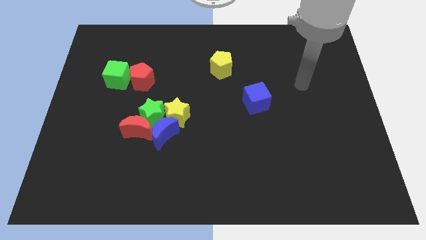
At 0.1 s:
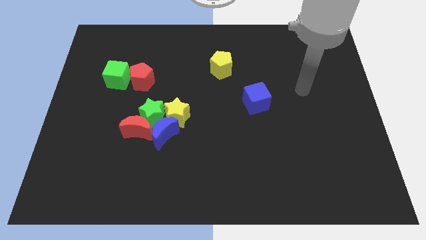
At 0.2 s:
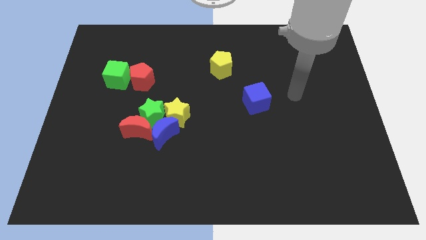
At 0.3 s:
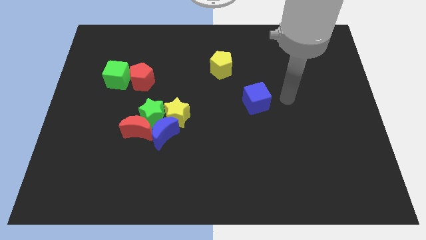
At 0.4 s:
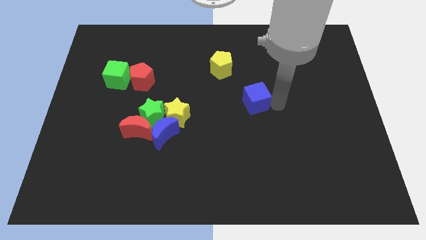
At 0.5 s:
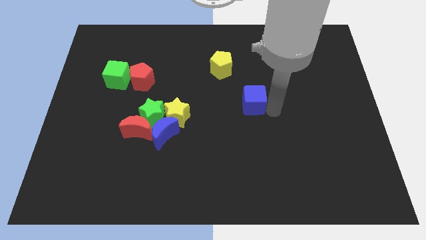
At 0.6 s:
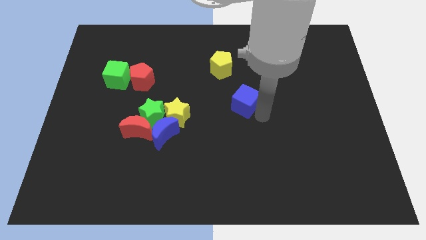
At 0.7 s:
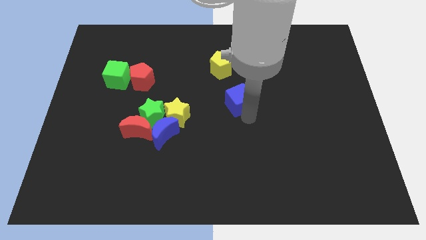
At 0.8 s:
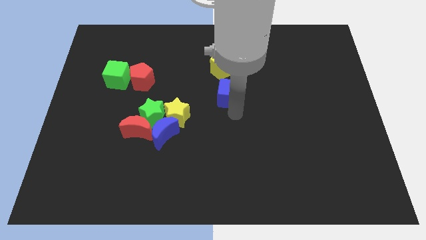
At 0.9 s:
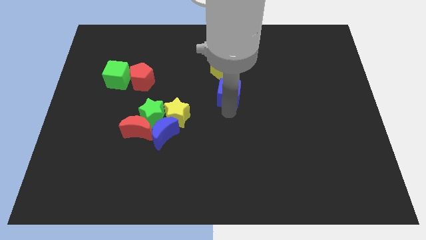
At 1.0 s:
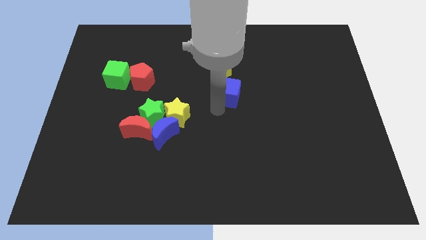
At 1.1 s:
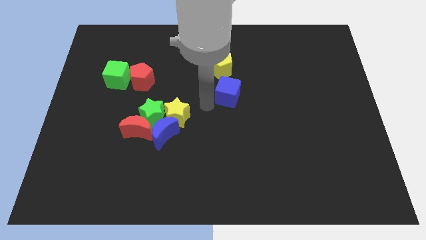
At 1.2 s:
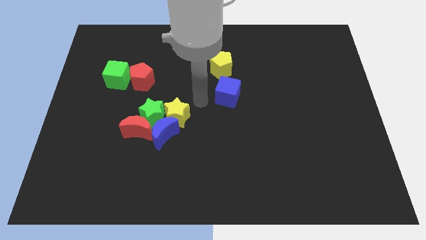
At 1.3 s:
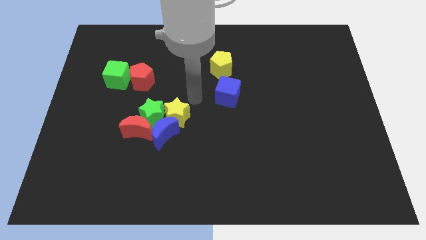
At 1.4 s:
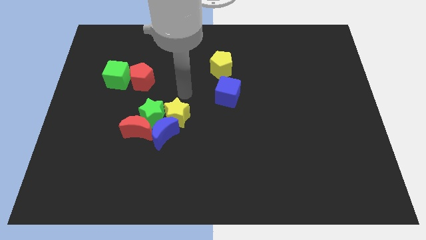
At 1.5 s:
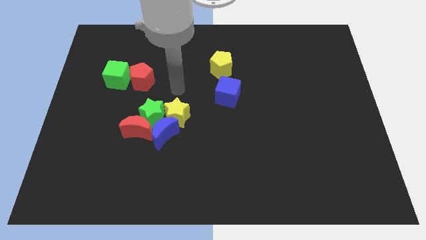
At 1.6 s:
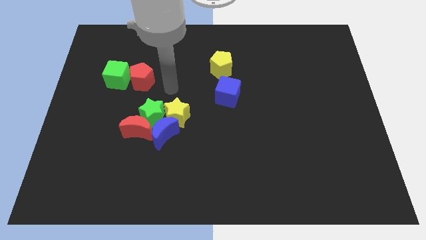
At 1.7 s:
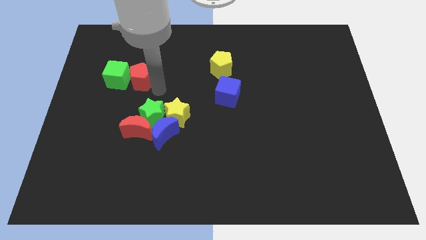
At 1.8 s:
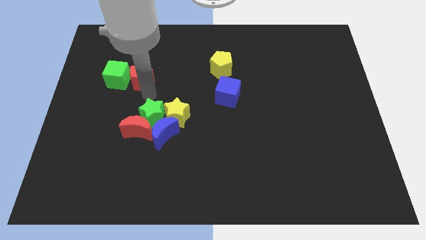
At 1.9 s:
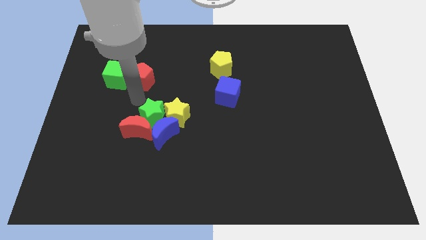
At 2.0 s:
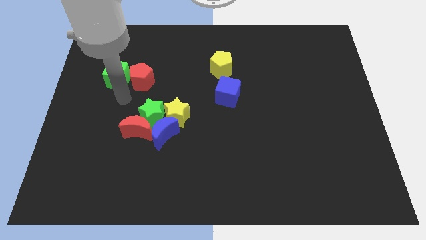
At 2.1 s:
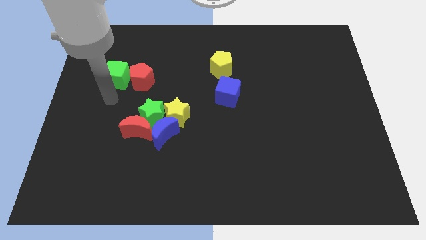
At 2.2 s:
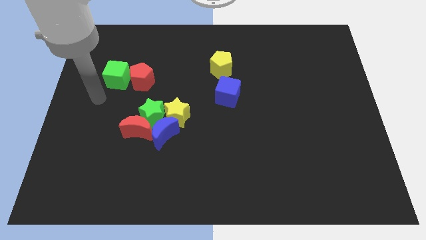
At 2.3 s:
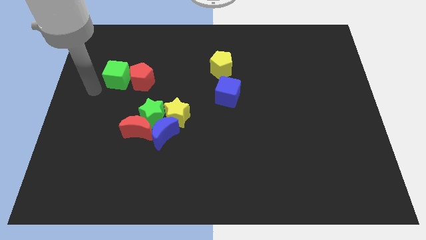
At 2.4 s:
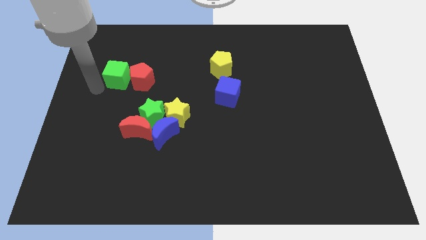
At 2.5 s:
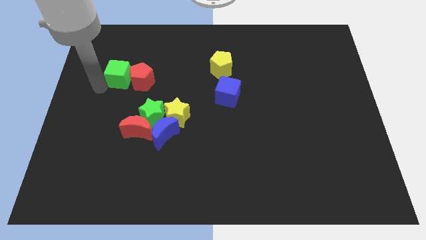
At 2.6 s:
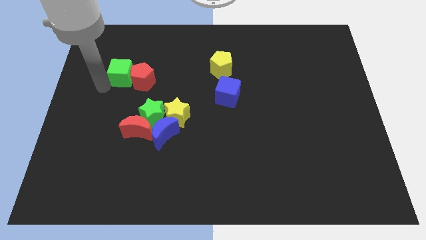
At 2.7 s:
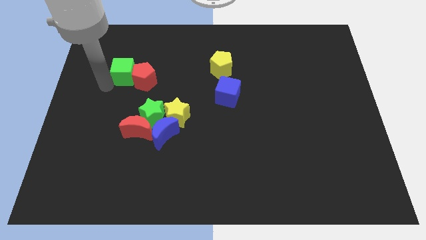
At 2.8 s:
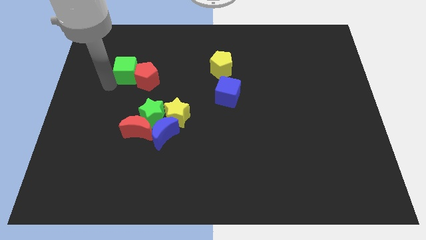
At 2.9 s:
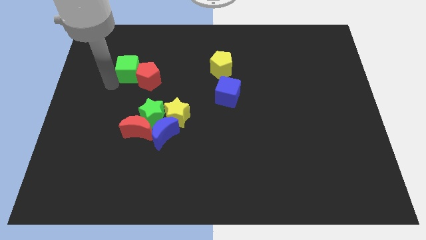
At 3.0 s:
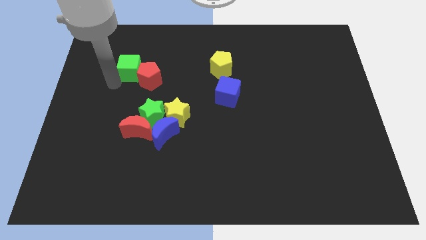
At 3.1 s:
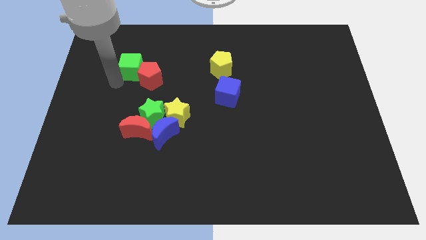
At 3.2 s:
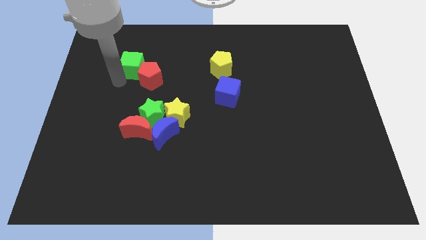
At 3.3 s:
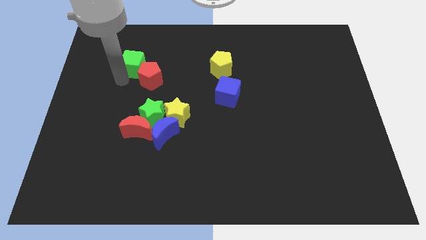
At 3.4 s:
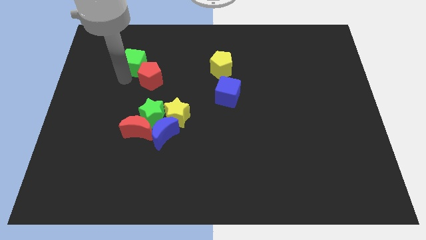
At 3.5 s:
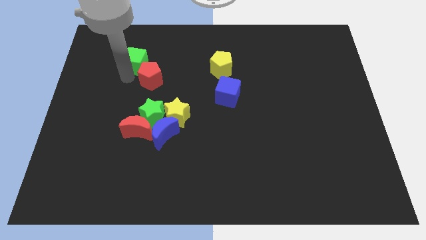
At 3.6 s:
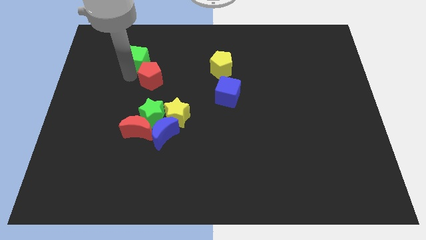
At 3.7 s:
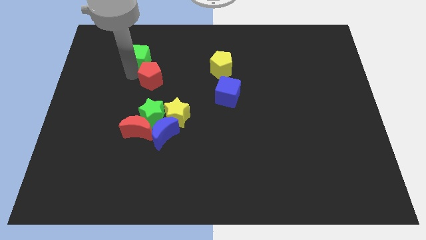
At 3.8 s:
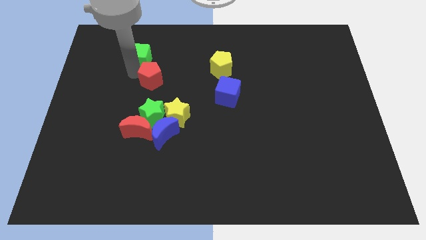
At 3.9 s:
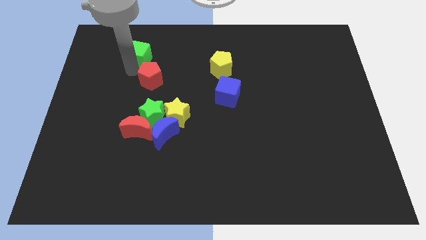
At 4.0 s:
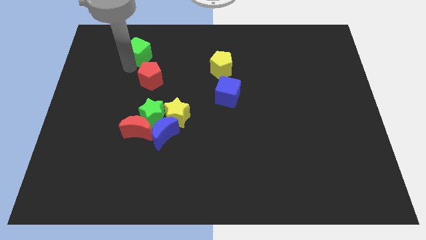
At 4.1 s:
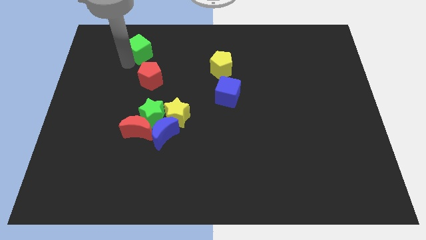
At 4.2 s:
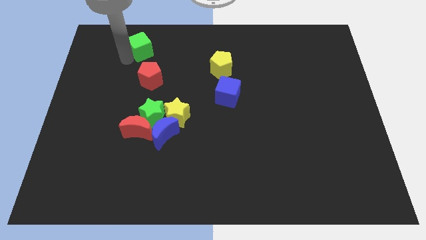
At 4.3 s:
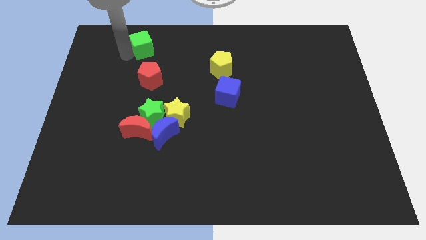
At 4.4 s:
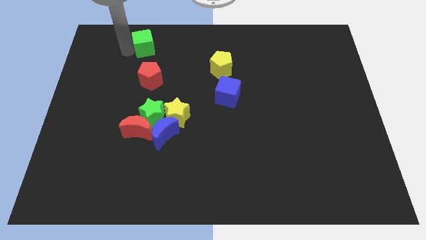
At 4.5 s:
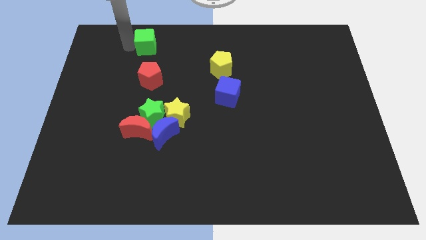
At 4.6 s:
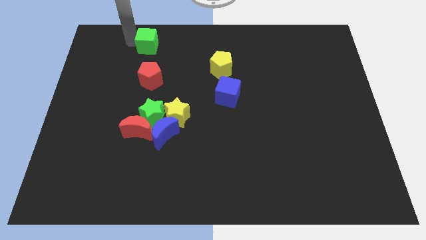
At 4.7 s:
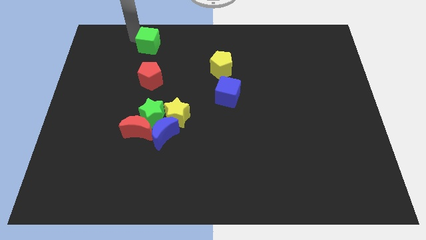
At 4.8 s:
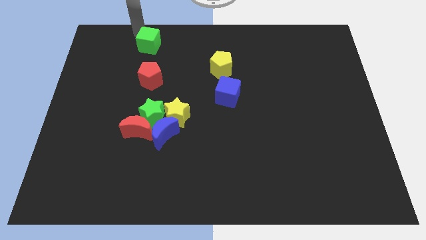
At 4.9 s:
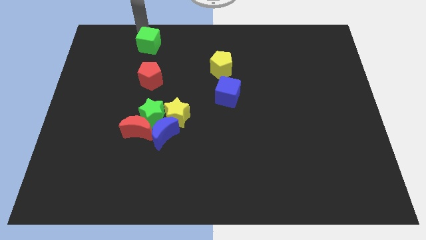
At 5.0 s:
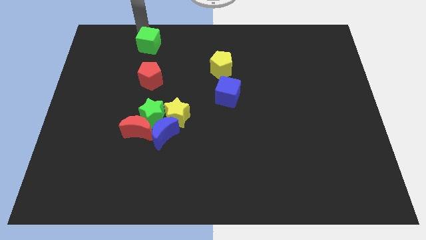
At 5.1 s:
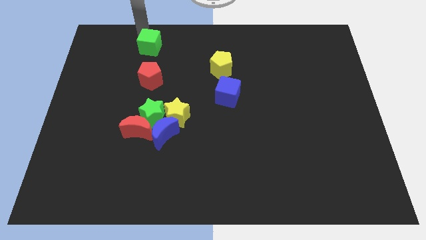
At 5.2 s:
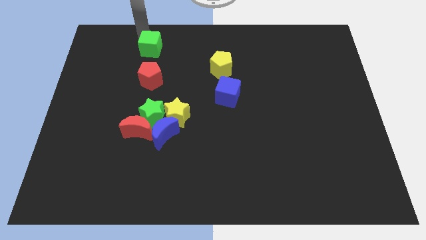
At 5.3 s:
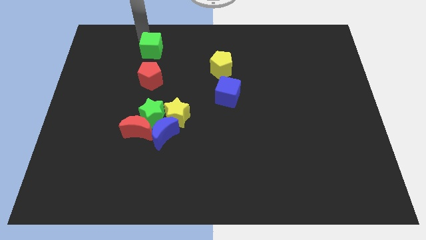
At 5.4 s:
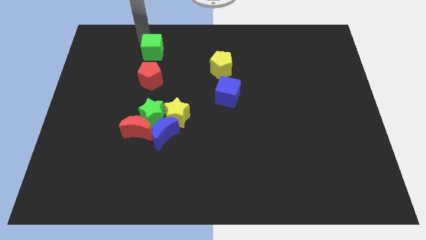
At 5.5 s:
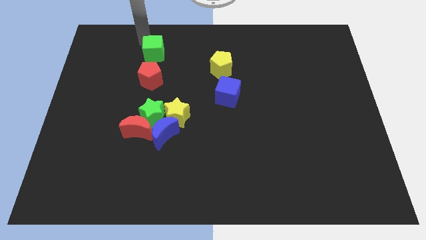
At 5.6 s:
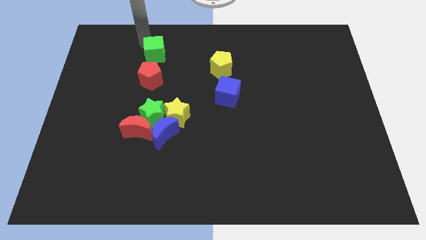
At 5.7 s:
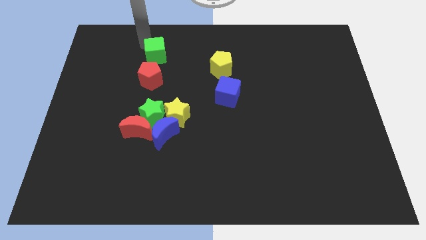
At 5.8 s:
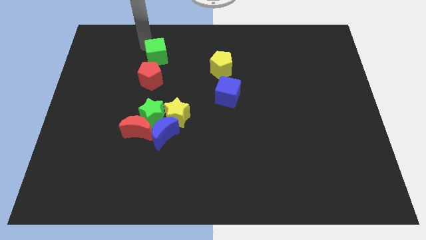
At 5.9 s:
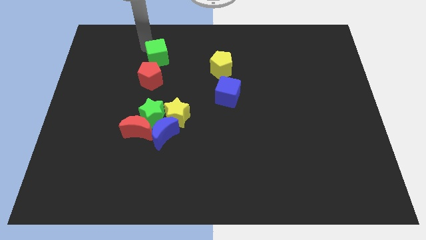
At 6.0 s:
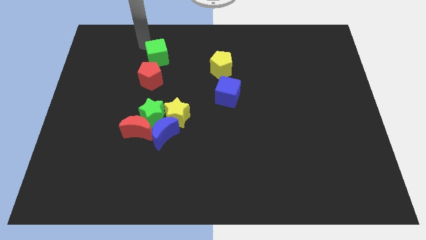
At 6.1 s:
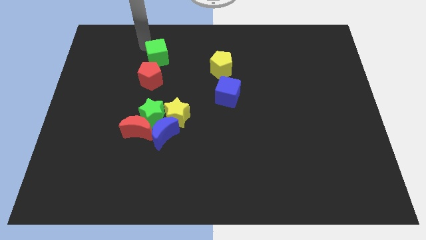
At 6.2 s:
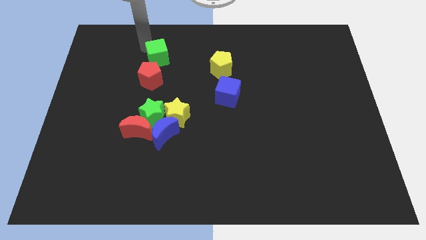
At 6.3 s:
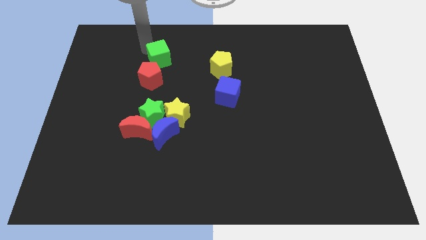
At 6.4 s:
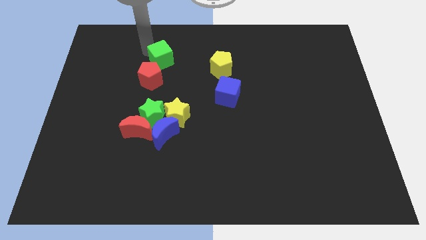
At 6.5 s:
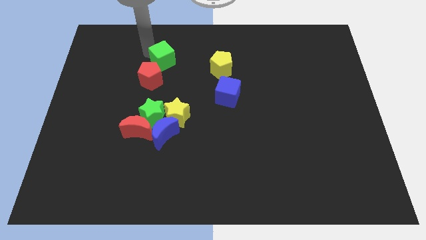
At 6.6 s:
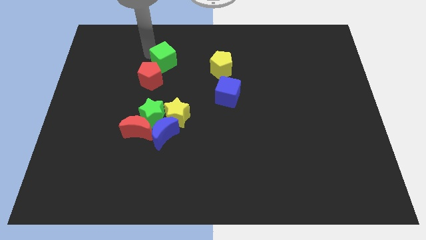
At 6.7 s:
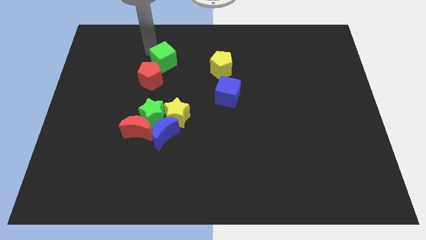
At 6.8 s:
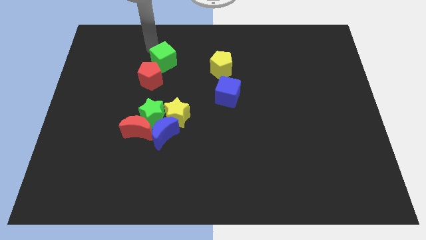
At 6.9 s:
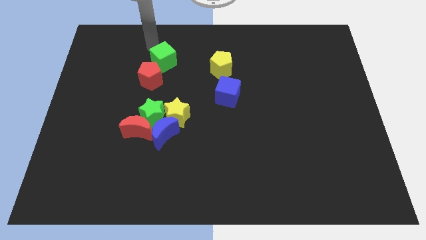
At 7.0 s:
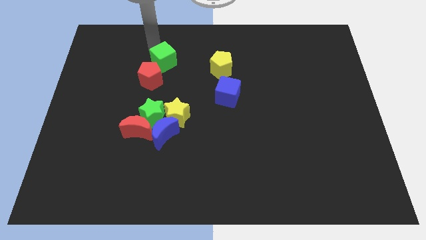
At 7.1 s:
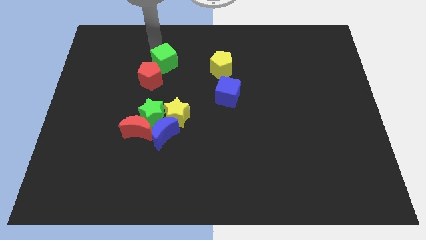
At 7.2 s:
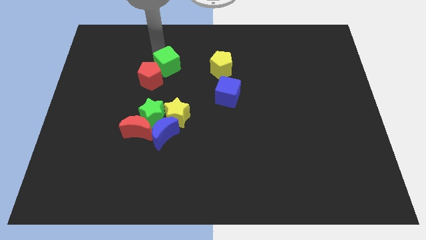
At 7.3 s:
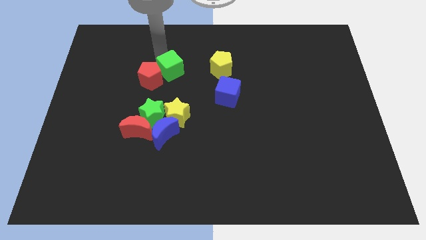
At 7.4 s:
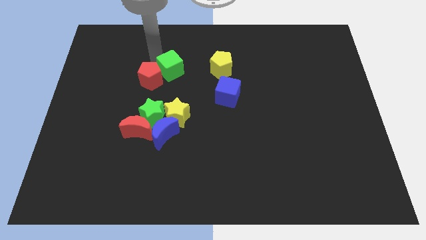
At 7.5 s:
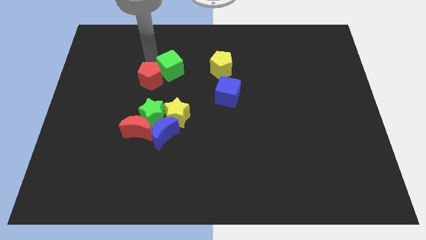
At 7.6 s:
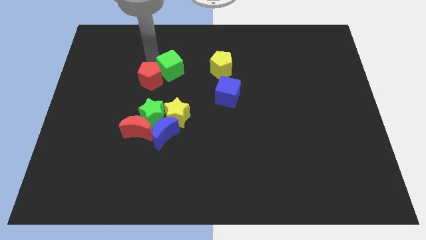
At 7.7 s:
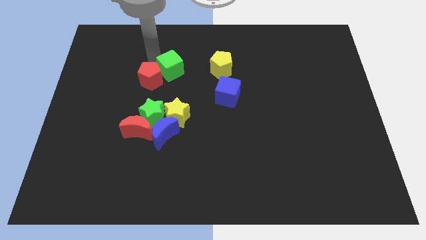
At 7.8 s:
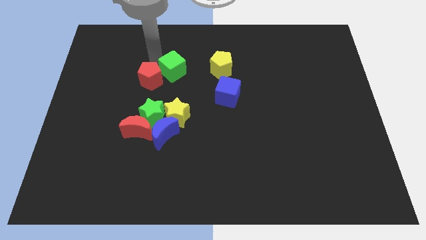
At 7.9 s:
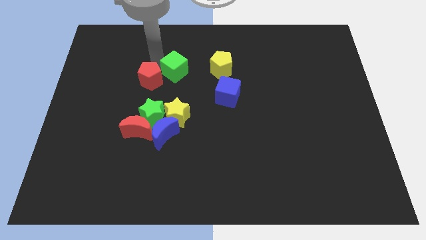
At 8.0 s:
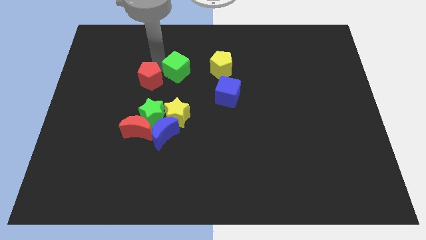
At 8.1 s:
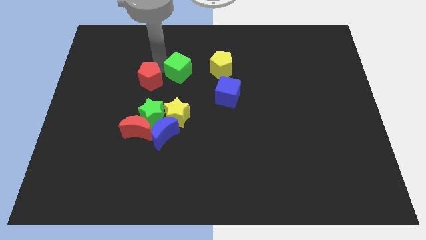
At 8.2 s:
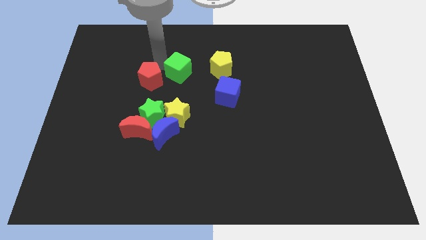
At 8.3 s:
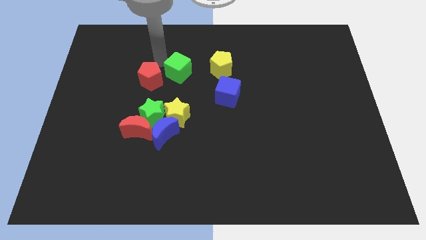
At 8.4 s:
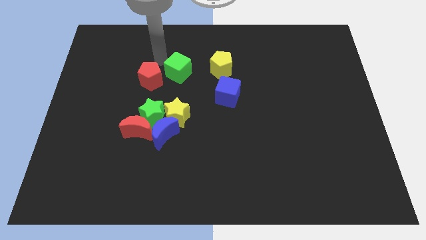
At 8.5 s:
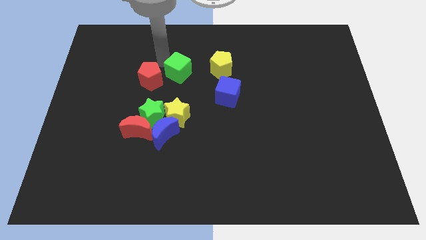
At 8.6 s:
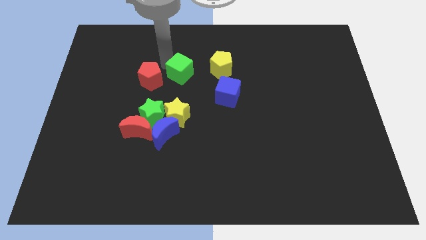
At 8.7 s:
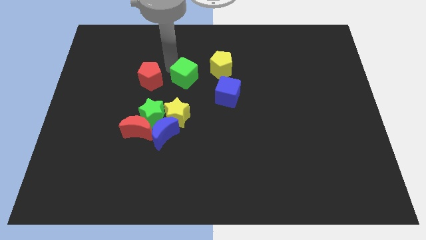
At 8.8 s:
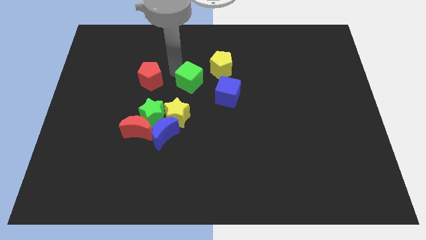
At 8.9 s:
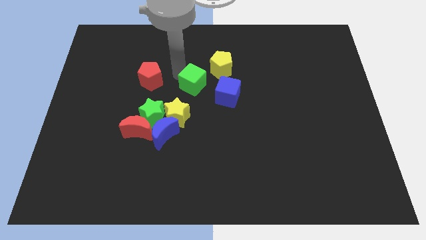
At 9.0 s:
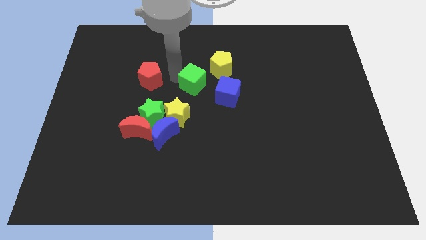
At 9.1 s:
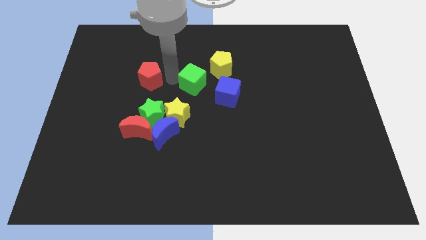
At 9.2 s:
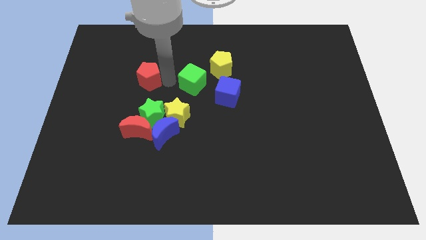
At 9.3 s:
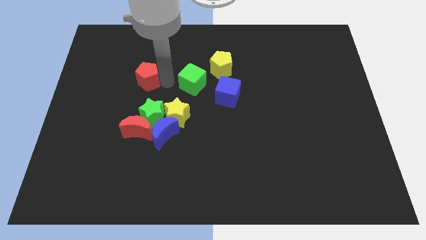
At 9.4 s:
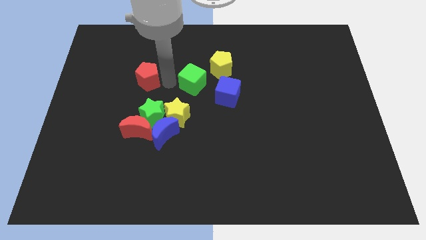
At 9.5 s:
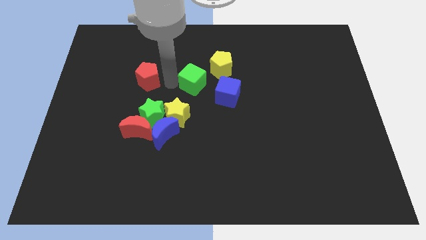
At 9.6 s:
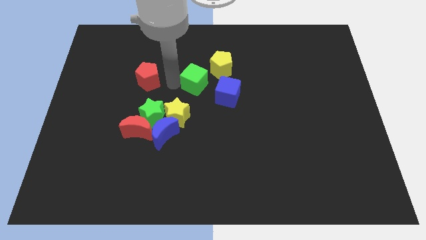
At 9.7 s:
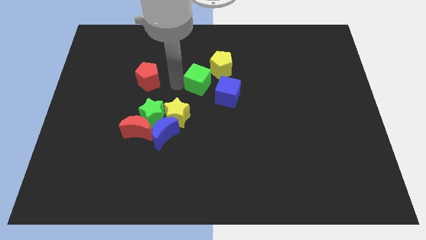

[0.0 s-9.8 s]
slide the green cube to the right
